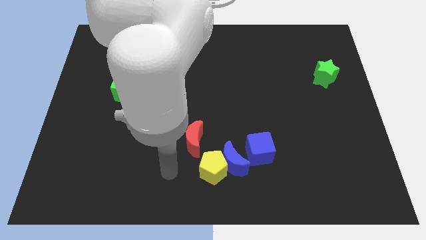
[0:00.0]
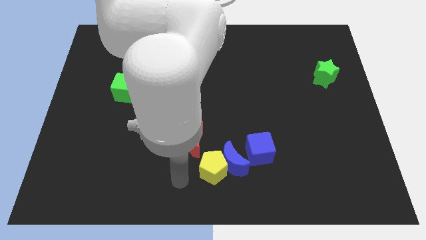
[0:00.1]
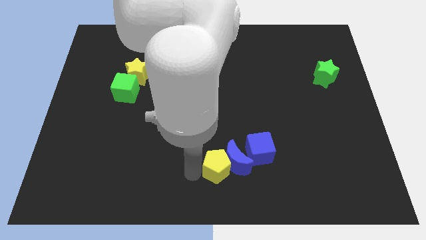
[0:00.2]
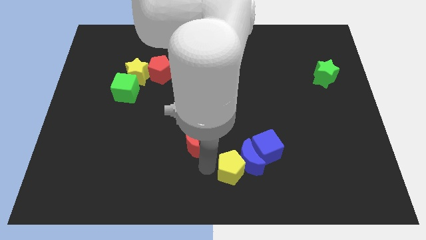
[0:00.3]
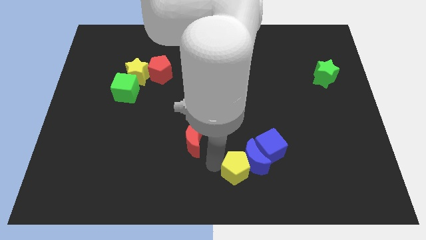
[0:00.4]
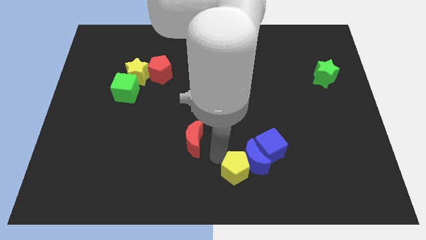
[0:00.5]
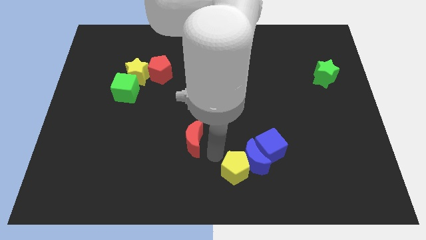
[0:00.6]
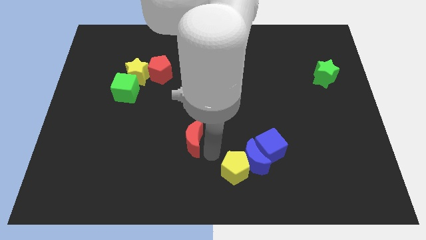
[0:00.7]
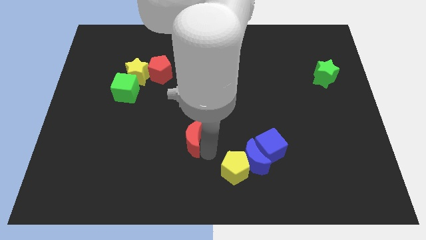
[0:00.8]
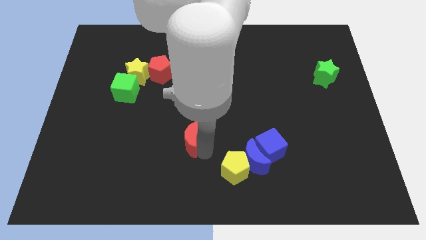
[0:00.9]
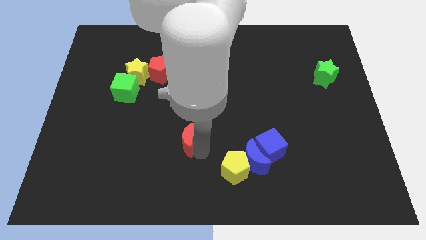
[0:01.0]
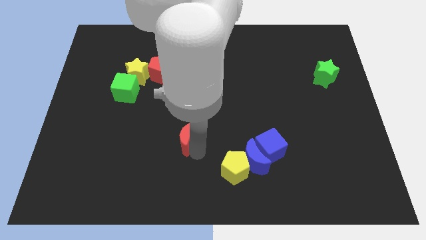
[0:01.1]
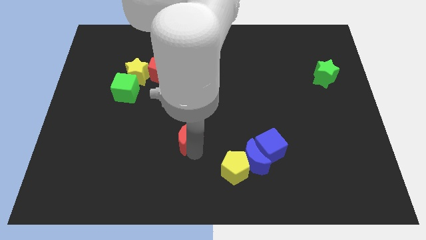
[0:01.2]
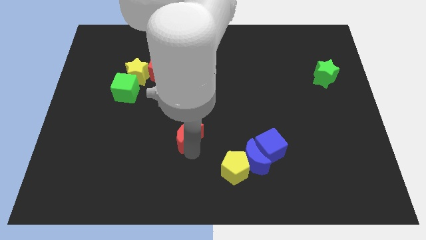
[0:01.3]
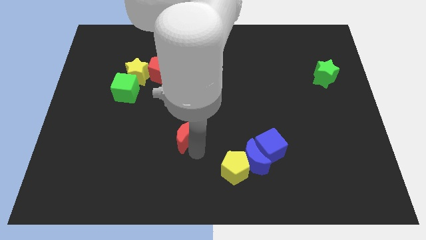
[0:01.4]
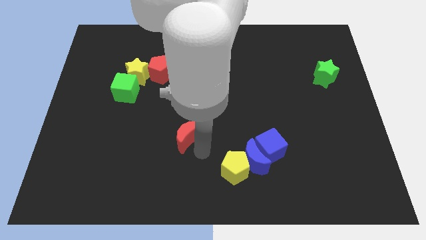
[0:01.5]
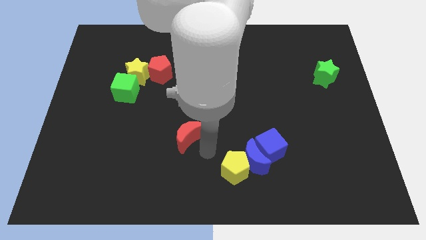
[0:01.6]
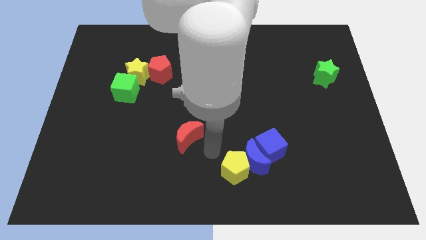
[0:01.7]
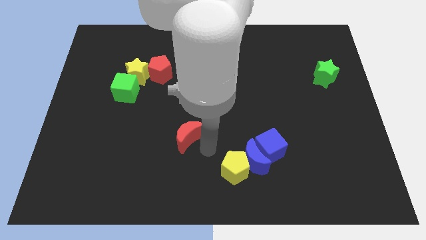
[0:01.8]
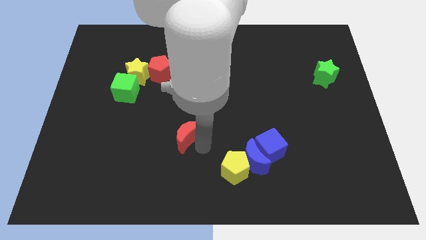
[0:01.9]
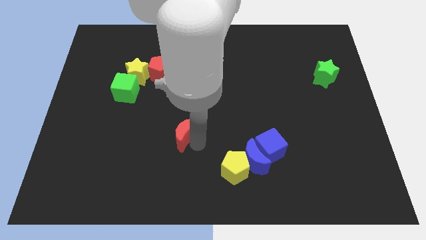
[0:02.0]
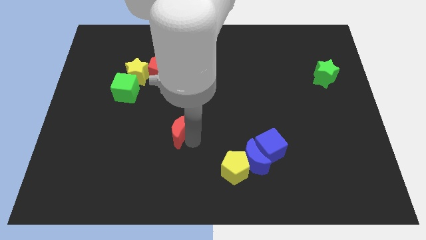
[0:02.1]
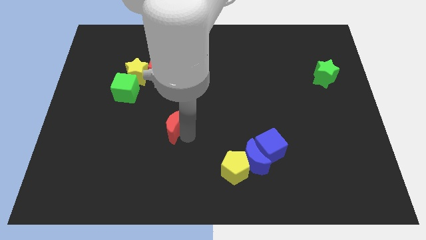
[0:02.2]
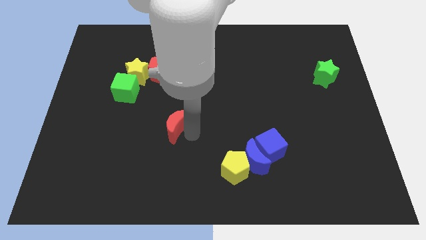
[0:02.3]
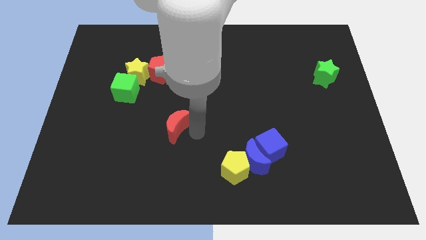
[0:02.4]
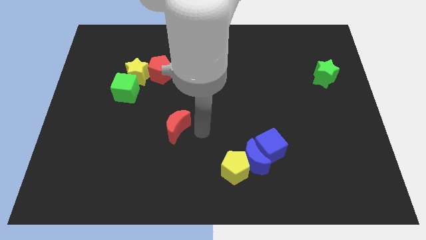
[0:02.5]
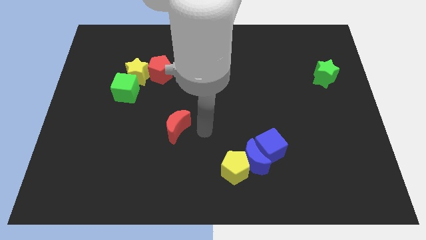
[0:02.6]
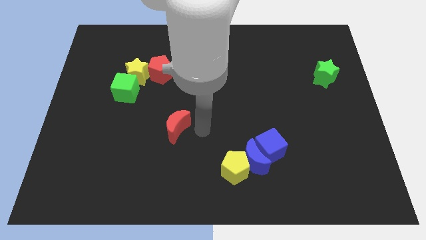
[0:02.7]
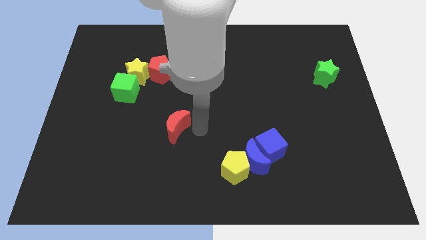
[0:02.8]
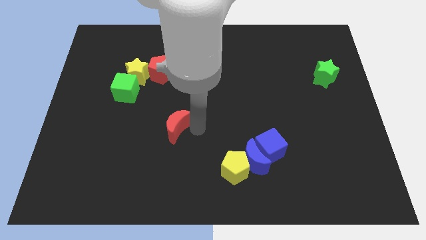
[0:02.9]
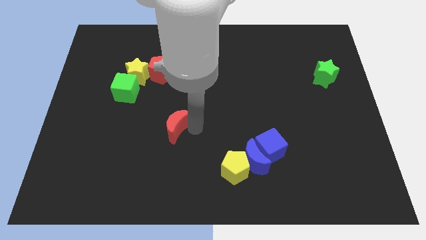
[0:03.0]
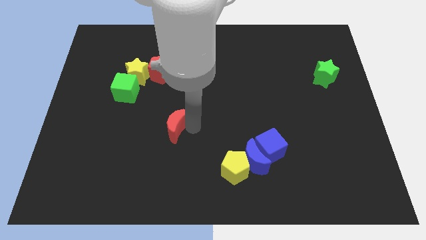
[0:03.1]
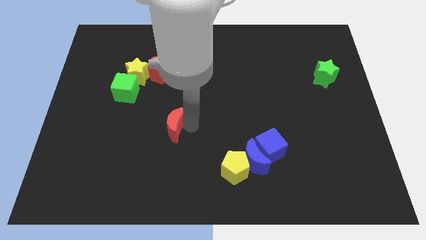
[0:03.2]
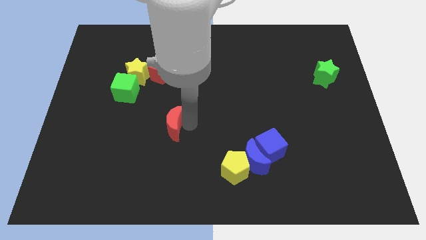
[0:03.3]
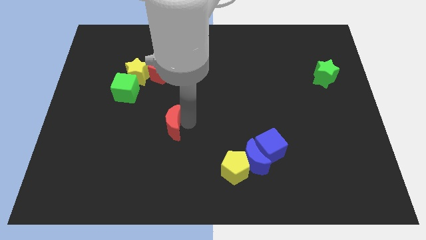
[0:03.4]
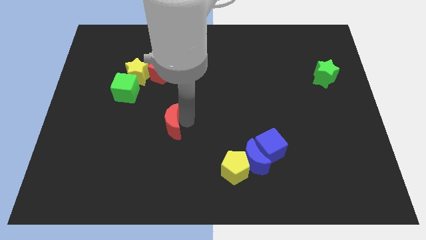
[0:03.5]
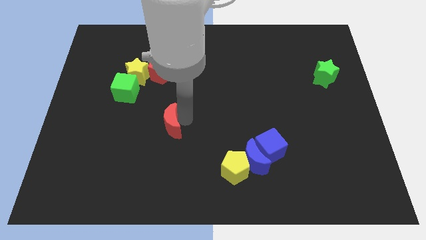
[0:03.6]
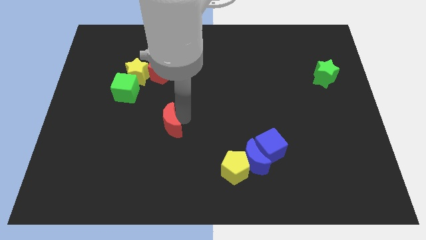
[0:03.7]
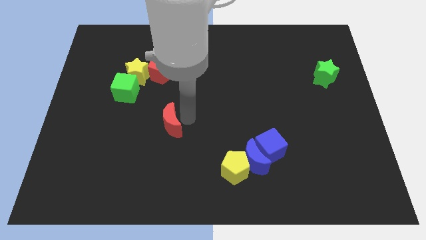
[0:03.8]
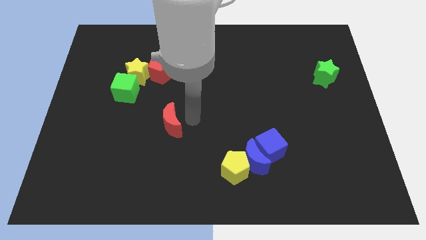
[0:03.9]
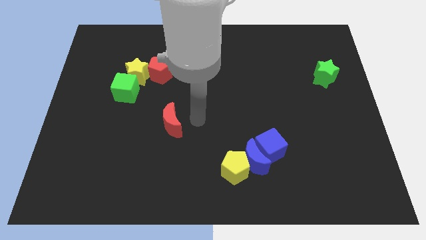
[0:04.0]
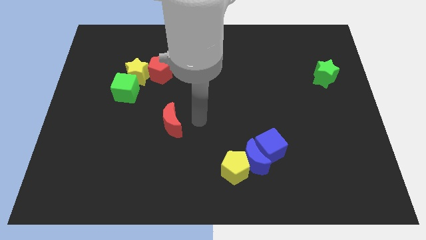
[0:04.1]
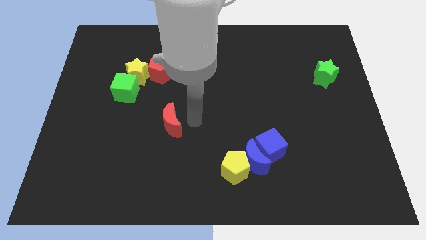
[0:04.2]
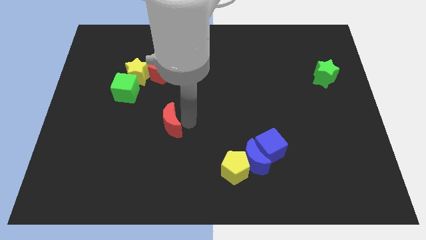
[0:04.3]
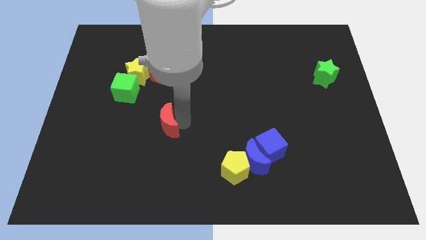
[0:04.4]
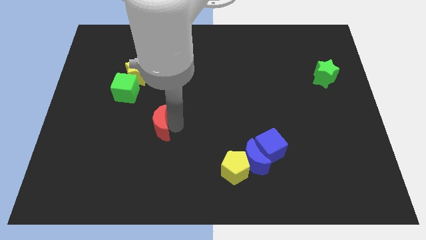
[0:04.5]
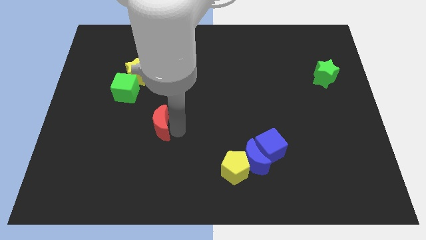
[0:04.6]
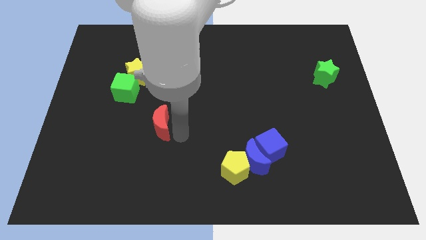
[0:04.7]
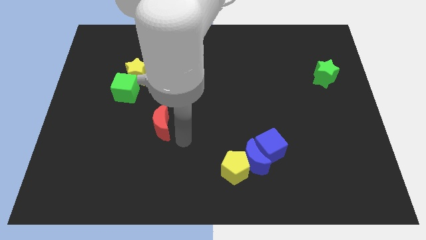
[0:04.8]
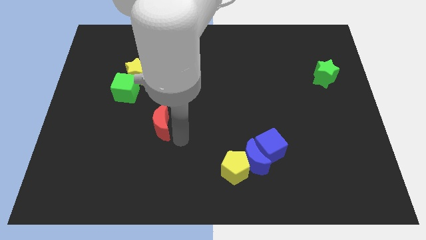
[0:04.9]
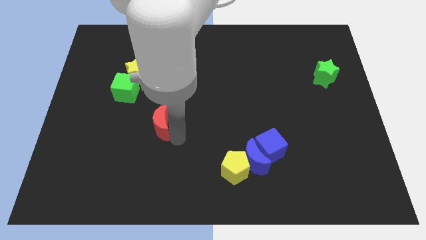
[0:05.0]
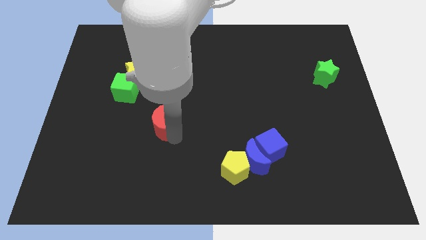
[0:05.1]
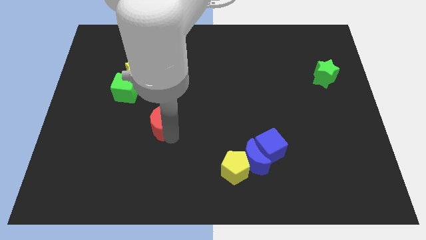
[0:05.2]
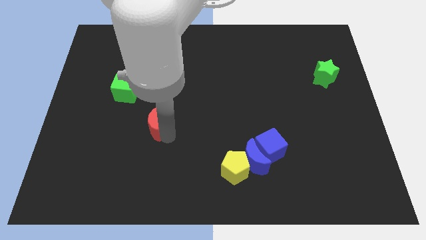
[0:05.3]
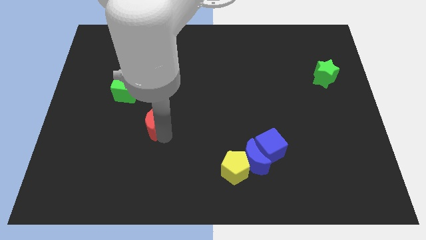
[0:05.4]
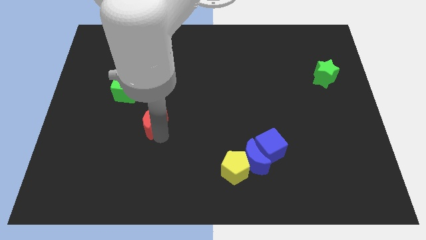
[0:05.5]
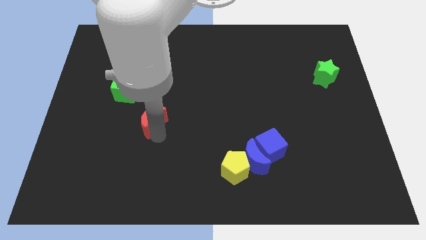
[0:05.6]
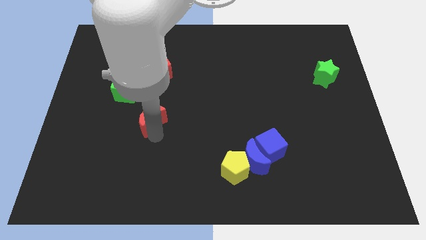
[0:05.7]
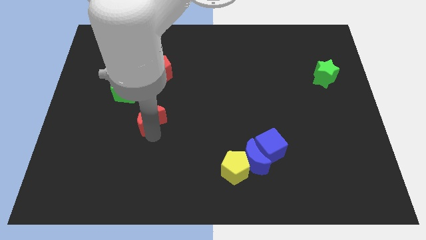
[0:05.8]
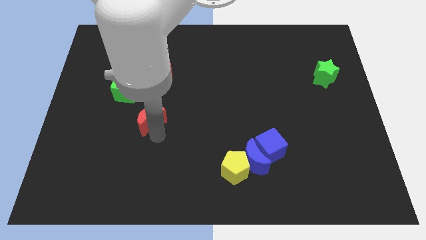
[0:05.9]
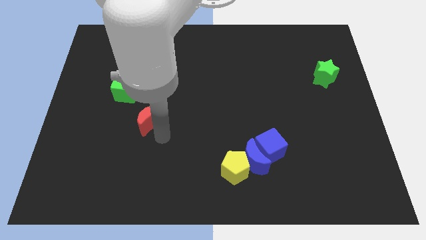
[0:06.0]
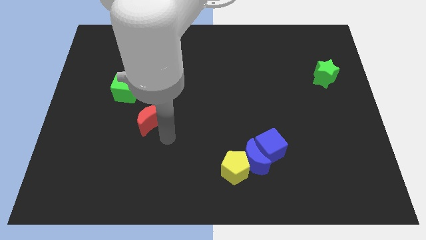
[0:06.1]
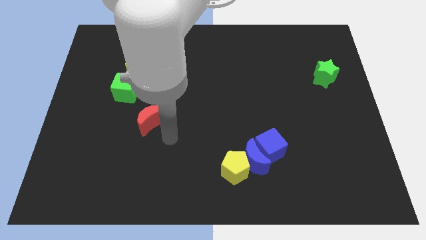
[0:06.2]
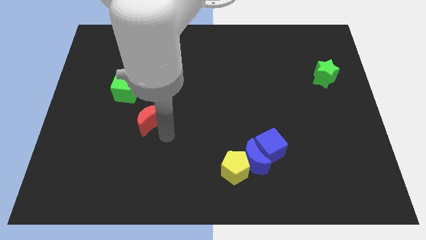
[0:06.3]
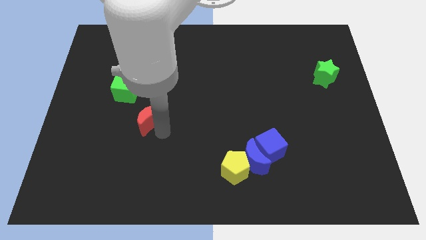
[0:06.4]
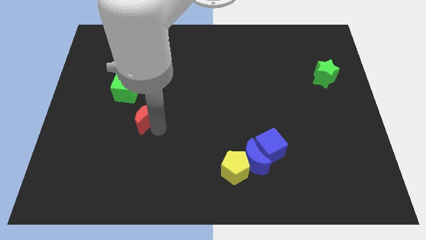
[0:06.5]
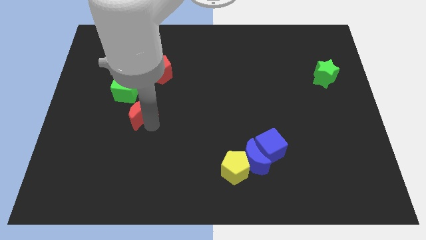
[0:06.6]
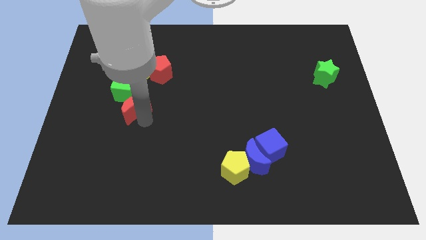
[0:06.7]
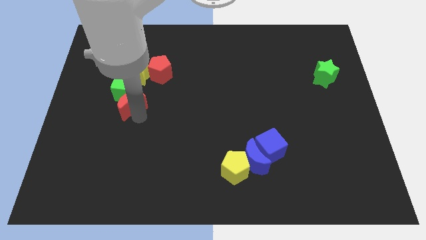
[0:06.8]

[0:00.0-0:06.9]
push the red moon towards the green cube

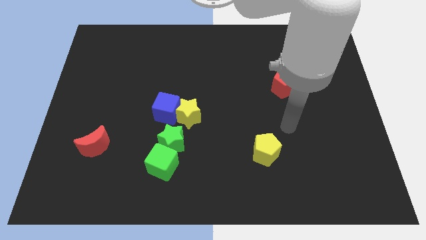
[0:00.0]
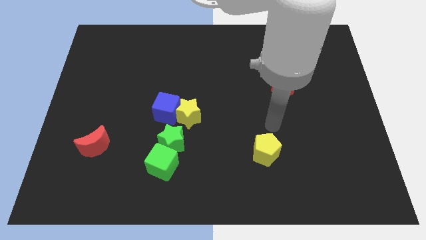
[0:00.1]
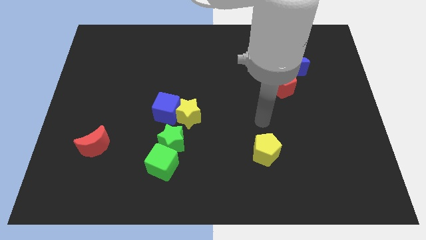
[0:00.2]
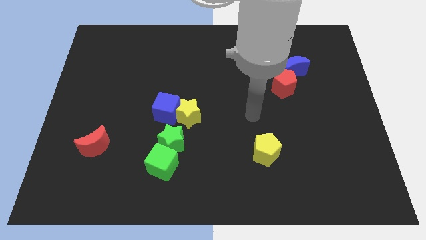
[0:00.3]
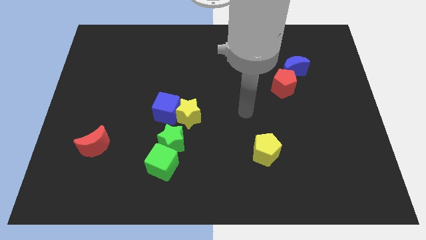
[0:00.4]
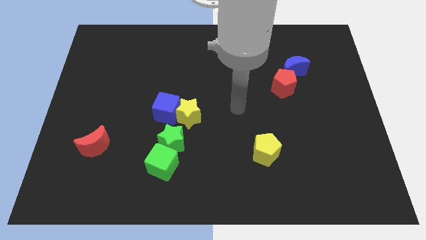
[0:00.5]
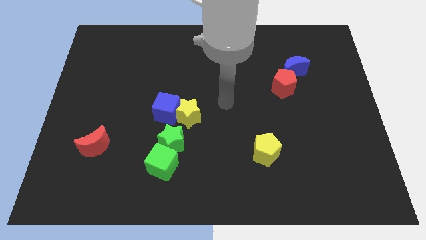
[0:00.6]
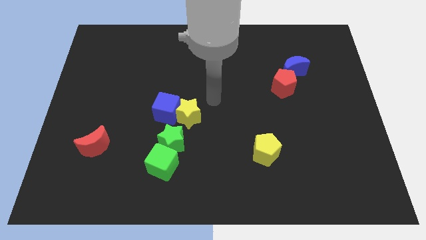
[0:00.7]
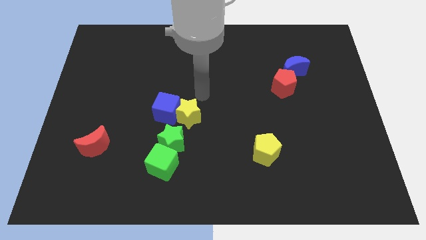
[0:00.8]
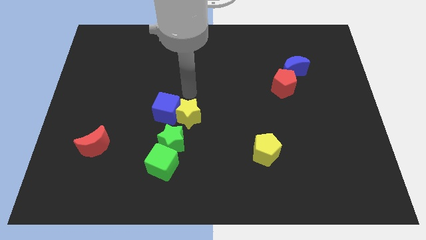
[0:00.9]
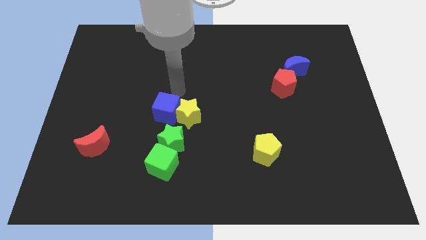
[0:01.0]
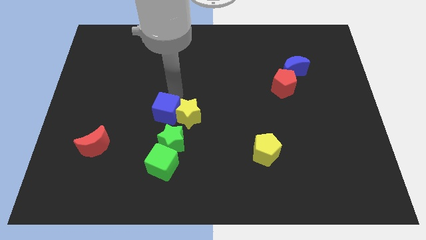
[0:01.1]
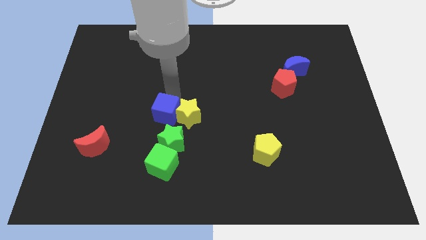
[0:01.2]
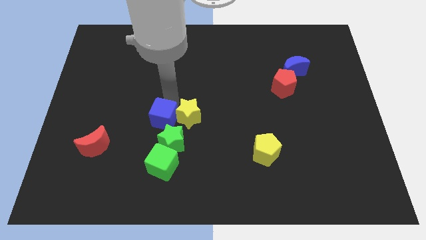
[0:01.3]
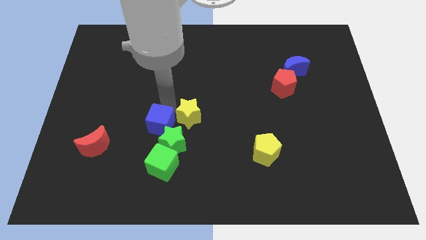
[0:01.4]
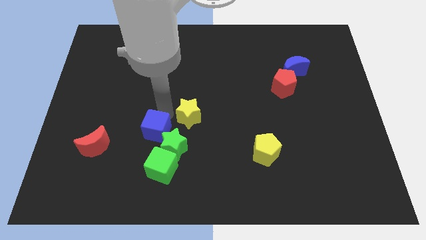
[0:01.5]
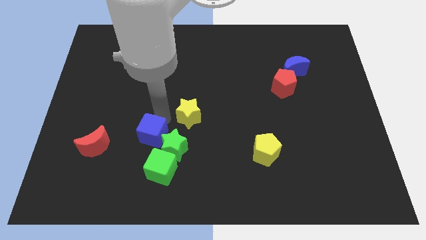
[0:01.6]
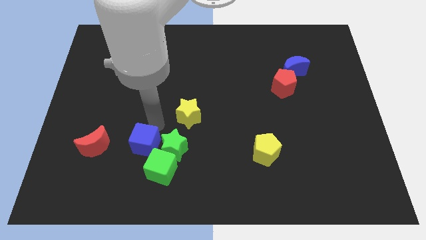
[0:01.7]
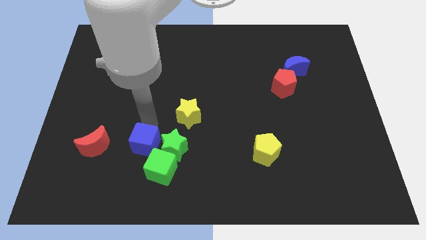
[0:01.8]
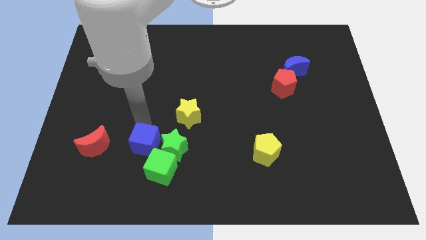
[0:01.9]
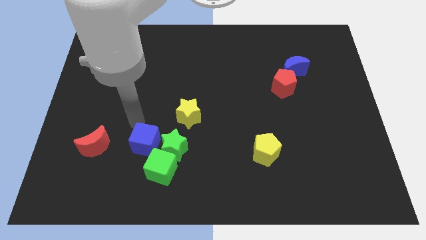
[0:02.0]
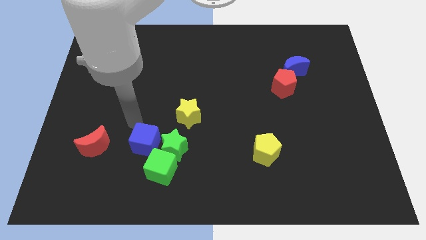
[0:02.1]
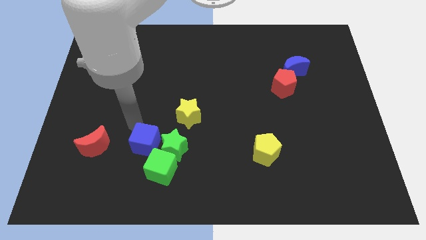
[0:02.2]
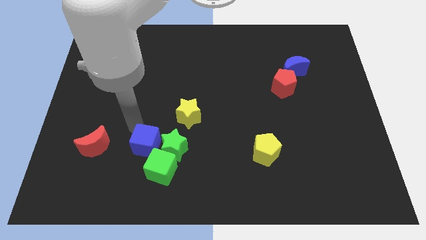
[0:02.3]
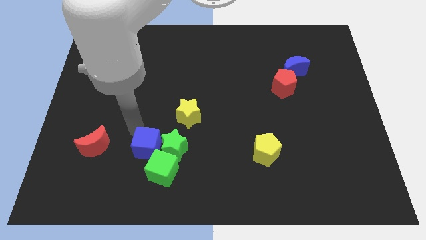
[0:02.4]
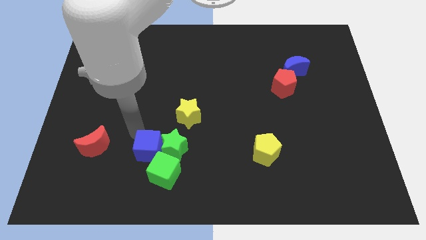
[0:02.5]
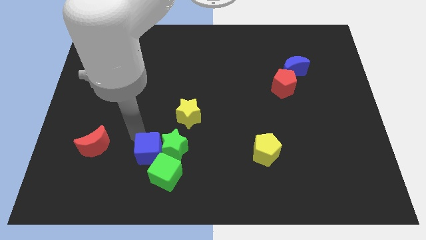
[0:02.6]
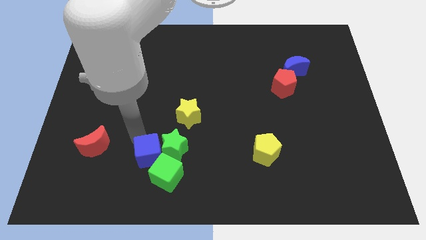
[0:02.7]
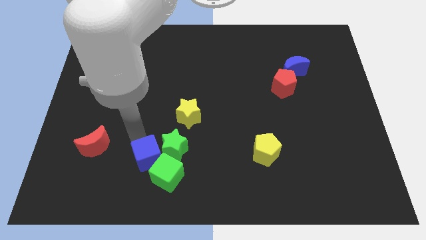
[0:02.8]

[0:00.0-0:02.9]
put the blue cube towards the green cube
